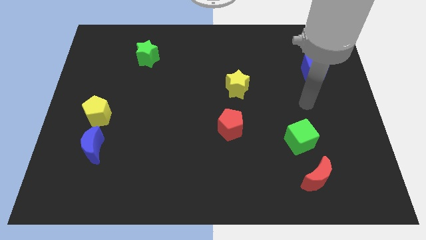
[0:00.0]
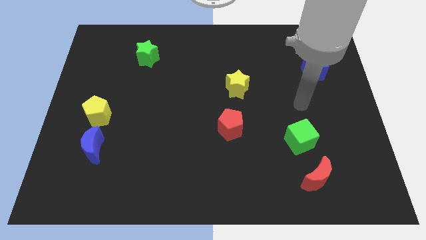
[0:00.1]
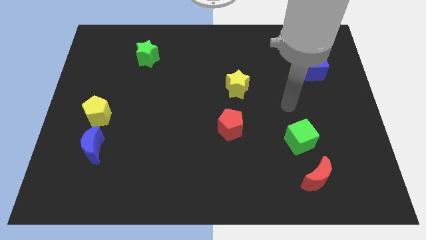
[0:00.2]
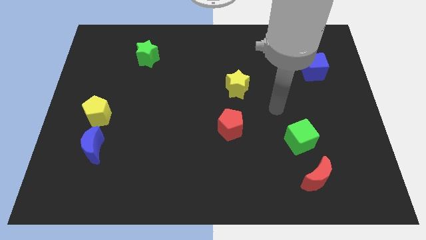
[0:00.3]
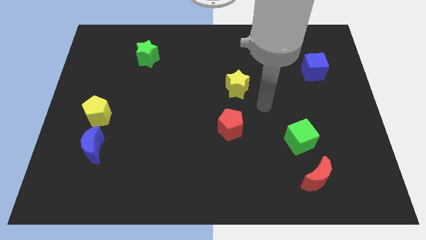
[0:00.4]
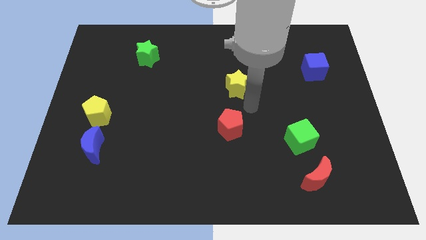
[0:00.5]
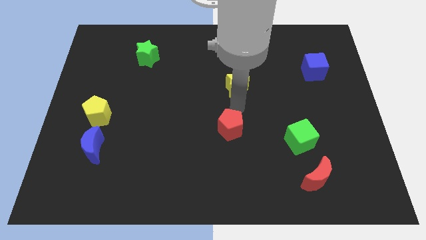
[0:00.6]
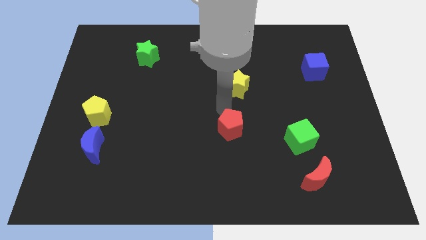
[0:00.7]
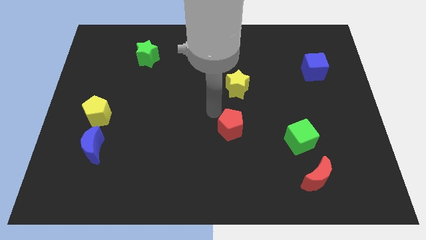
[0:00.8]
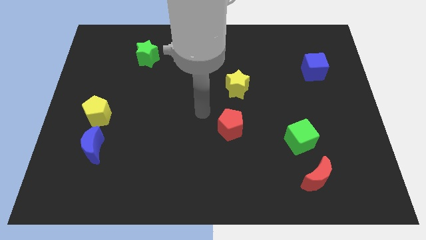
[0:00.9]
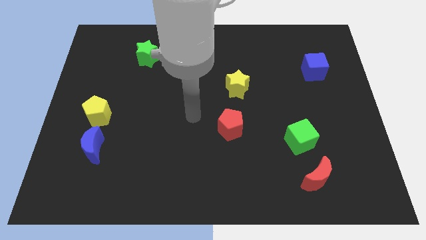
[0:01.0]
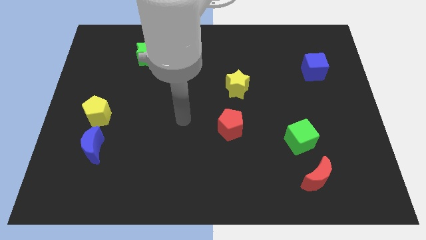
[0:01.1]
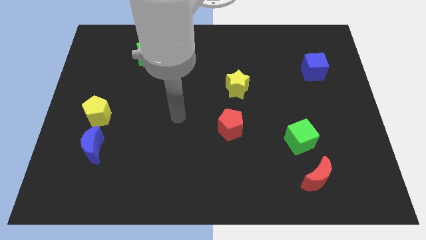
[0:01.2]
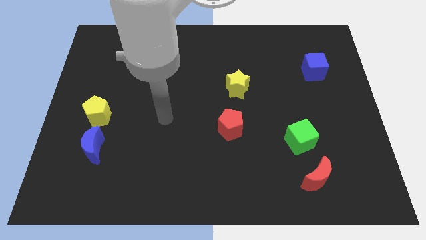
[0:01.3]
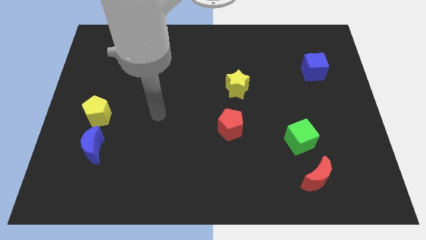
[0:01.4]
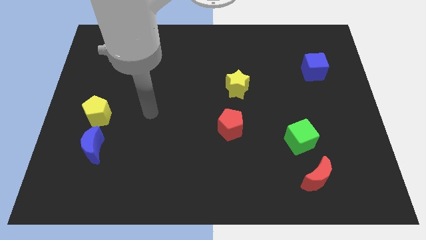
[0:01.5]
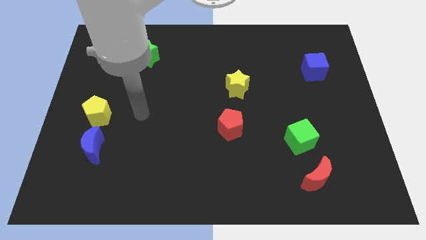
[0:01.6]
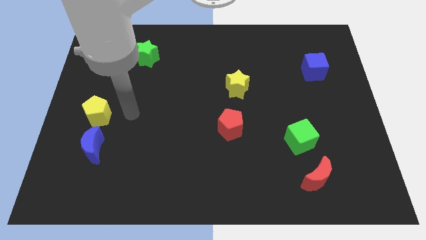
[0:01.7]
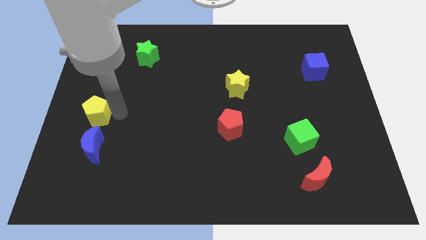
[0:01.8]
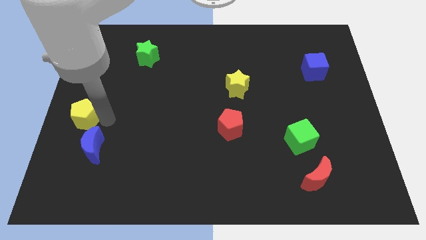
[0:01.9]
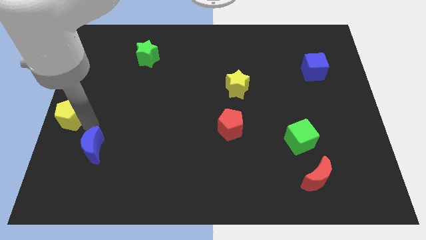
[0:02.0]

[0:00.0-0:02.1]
pull the blue moon apart from the yellow pentagon

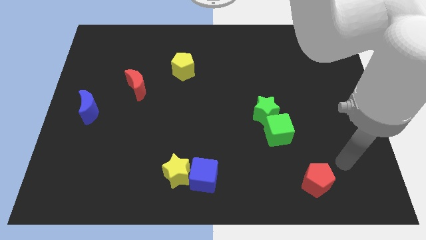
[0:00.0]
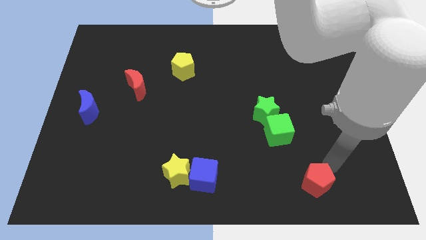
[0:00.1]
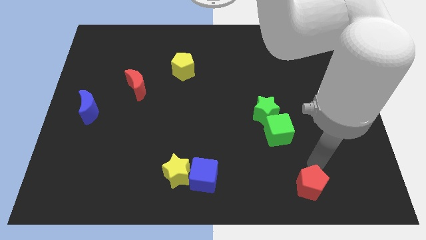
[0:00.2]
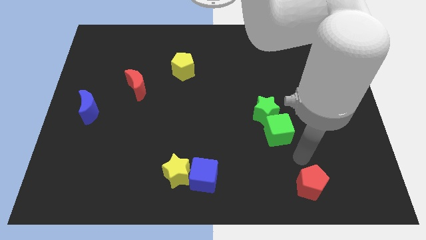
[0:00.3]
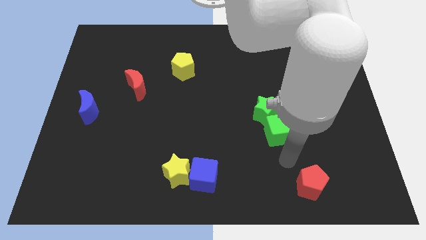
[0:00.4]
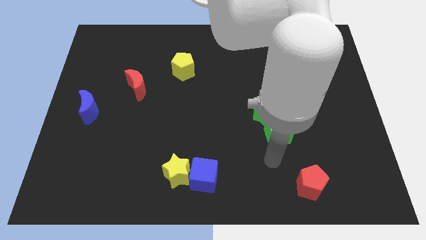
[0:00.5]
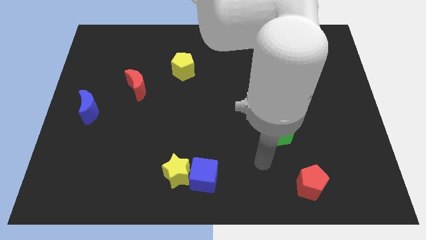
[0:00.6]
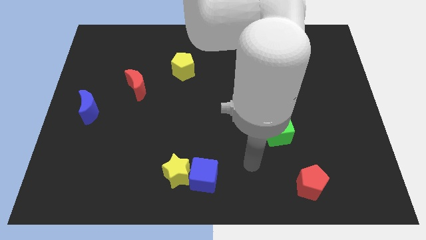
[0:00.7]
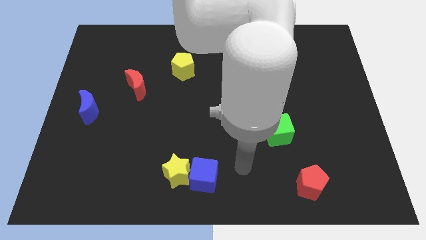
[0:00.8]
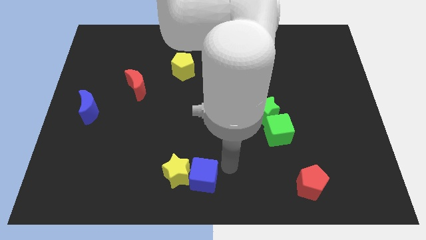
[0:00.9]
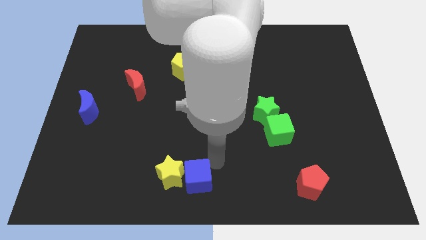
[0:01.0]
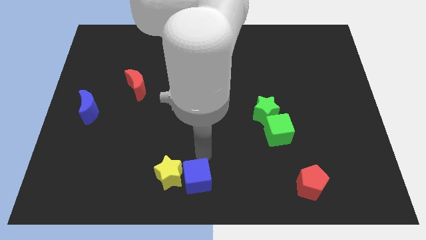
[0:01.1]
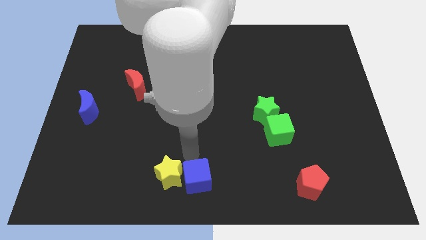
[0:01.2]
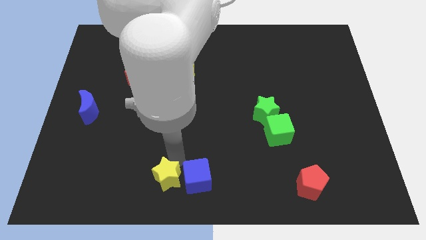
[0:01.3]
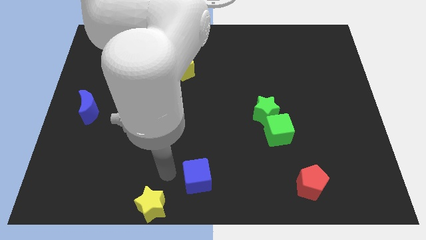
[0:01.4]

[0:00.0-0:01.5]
separate the blue cube from the yellow star

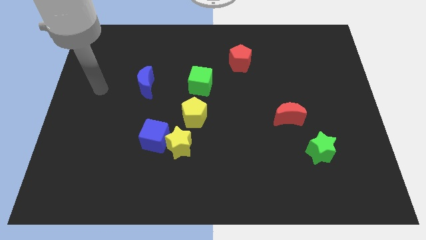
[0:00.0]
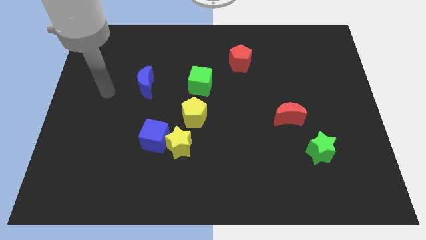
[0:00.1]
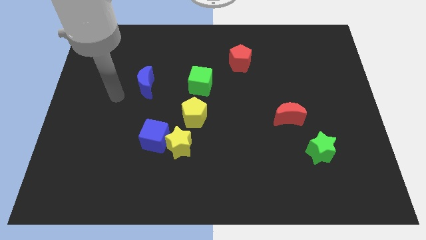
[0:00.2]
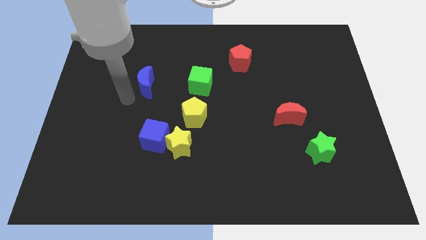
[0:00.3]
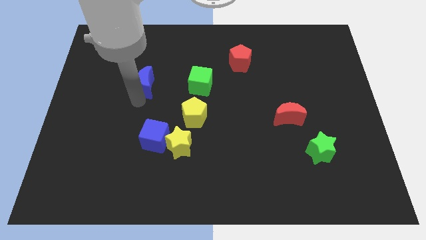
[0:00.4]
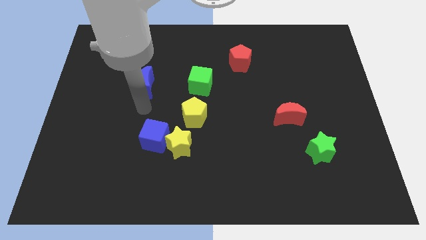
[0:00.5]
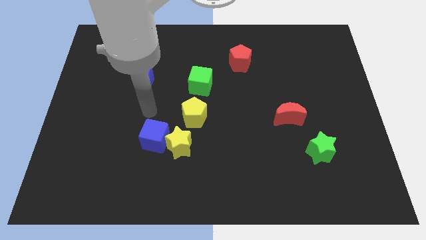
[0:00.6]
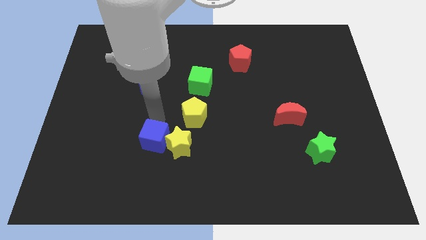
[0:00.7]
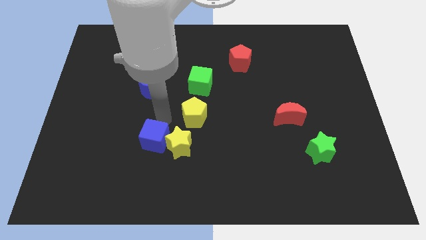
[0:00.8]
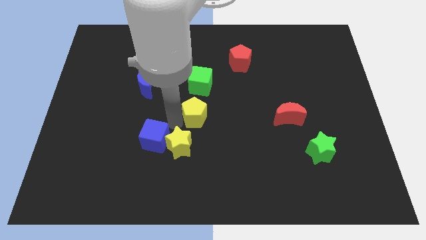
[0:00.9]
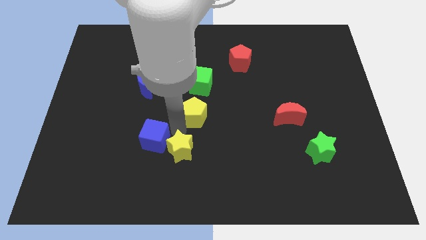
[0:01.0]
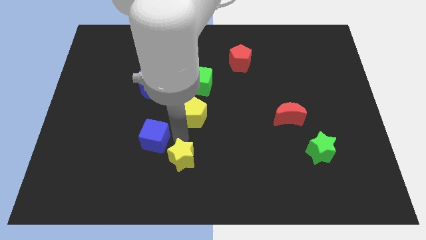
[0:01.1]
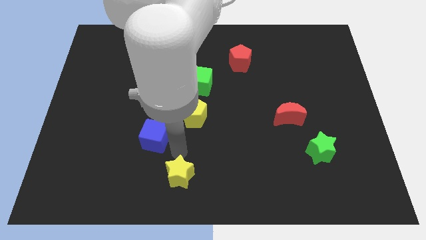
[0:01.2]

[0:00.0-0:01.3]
move the blue cube away from the yellow star

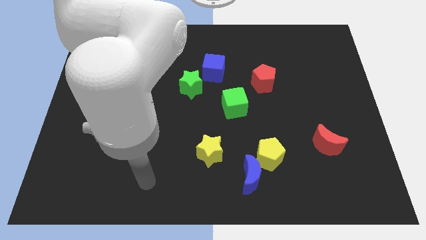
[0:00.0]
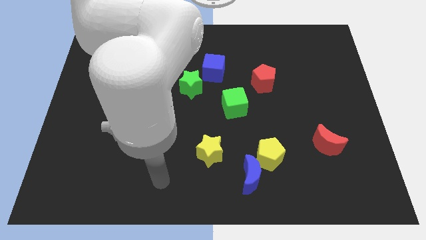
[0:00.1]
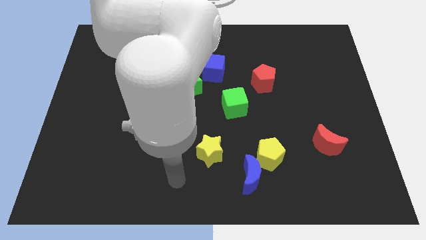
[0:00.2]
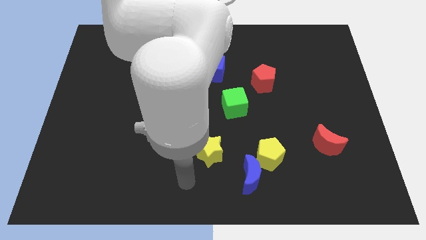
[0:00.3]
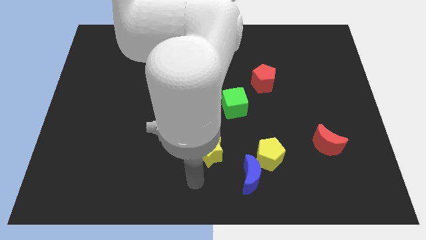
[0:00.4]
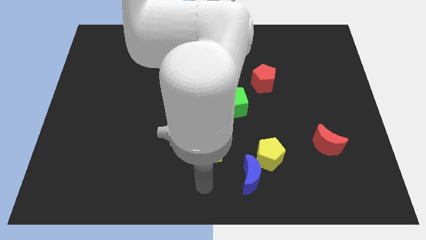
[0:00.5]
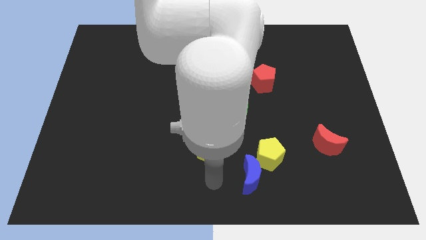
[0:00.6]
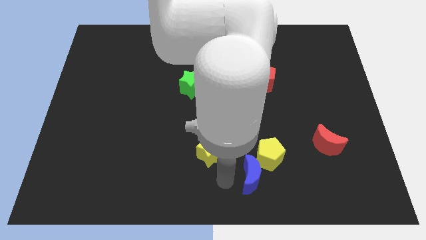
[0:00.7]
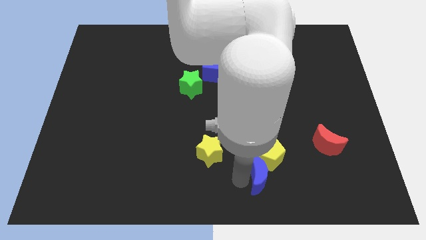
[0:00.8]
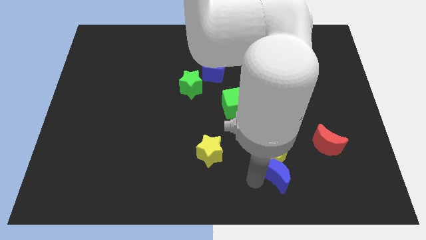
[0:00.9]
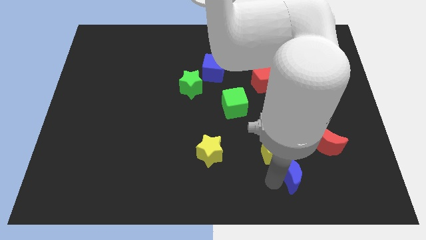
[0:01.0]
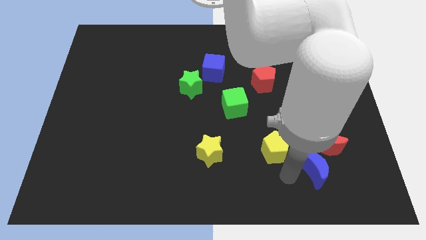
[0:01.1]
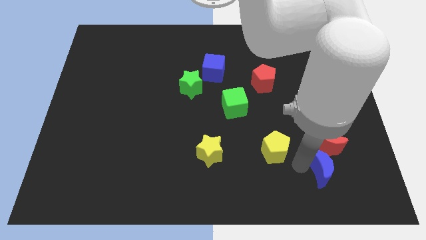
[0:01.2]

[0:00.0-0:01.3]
pull the yellow pentagon apart from the blue moon

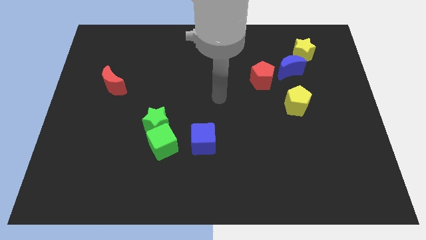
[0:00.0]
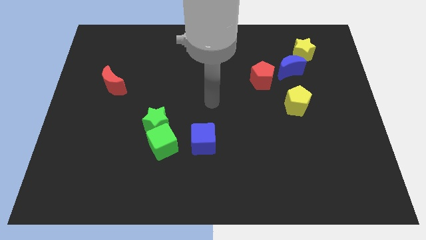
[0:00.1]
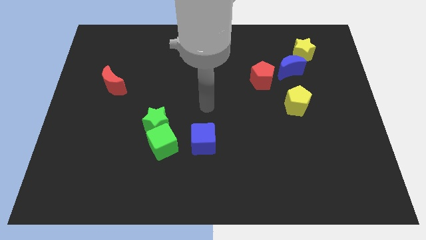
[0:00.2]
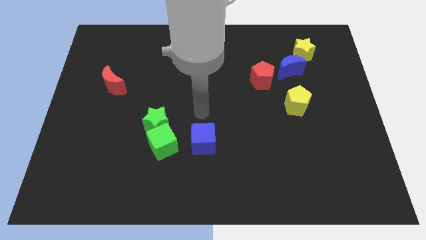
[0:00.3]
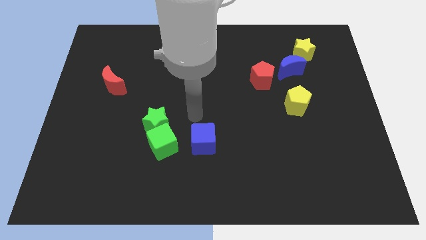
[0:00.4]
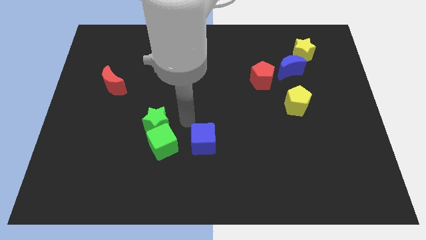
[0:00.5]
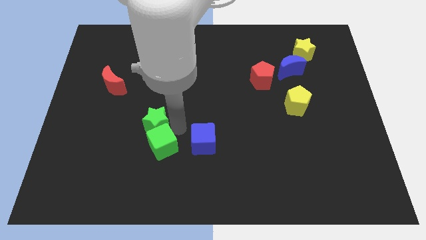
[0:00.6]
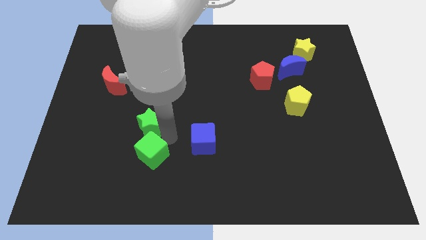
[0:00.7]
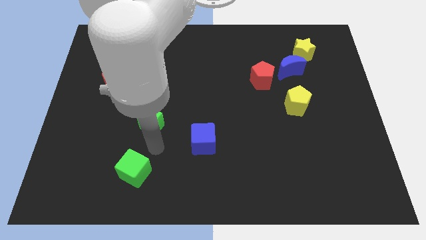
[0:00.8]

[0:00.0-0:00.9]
separate the green star from the green cube

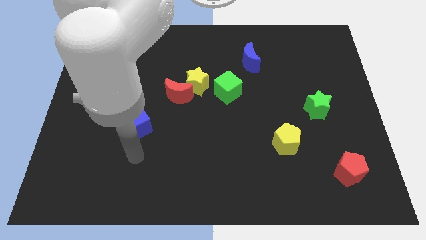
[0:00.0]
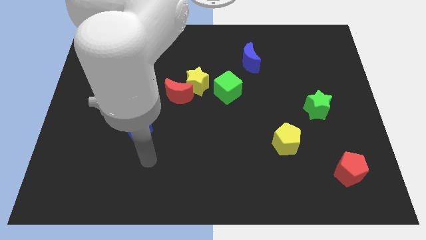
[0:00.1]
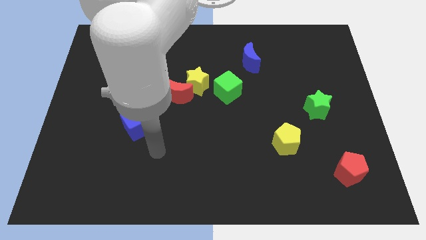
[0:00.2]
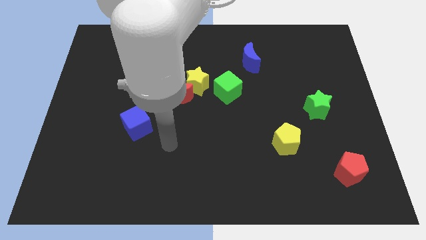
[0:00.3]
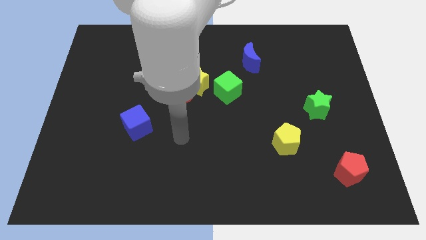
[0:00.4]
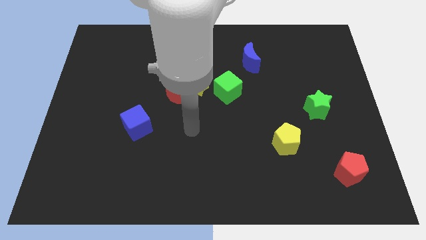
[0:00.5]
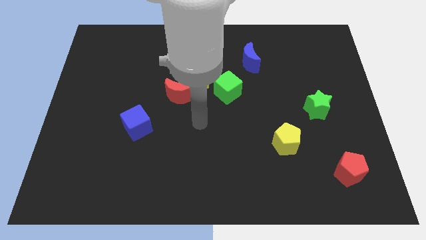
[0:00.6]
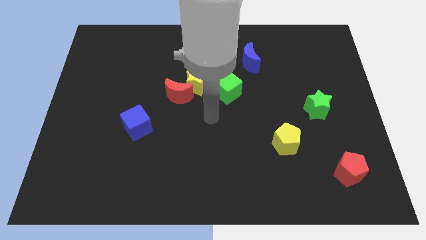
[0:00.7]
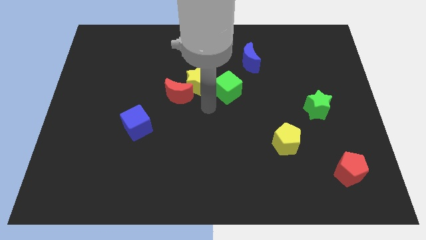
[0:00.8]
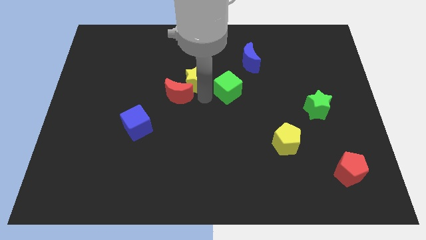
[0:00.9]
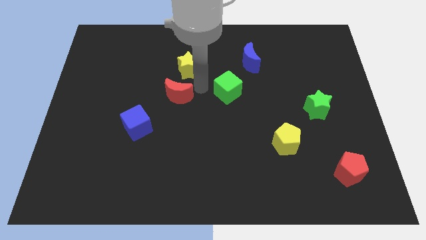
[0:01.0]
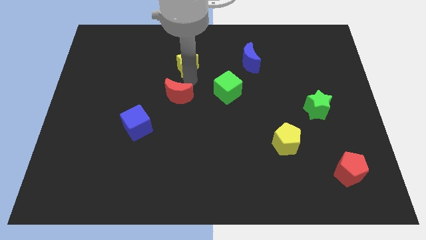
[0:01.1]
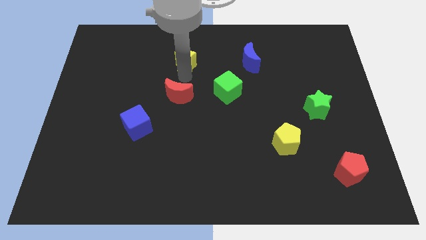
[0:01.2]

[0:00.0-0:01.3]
move the red moon away from the yellow star

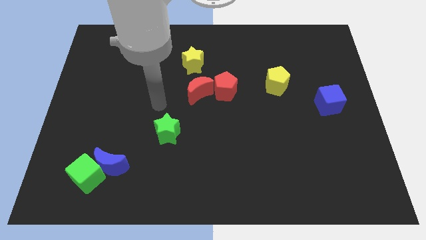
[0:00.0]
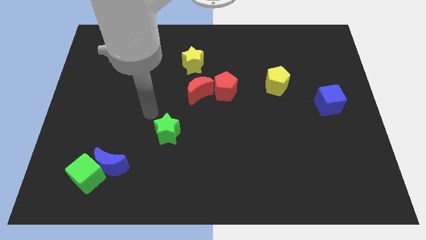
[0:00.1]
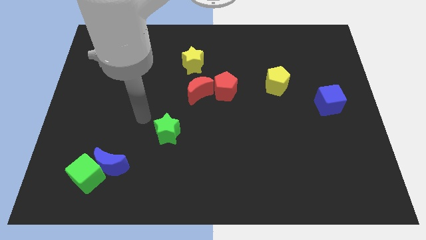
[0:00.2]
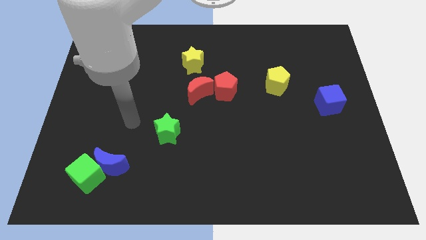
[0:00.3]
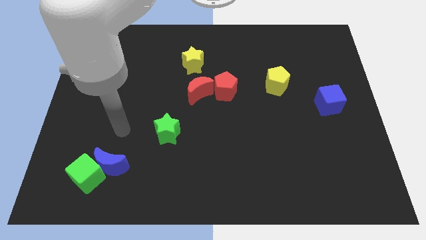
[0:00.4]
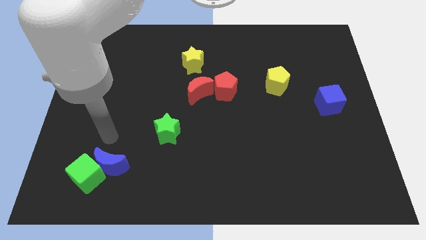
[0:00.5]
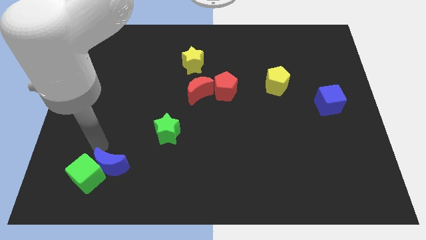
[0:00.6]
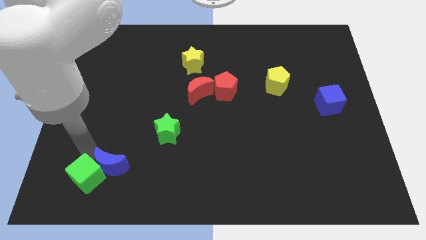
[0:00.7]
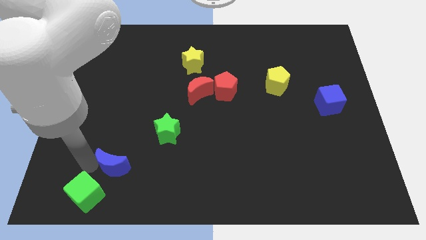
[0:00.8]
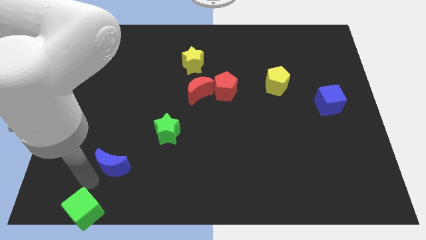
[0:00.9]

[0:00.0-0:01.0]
move the blue moon away from the green cube

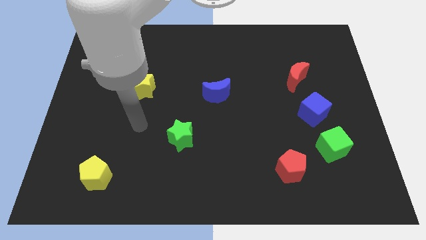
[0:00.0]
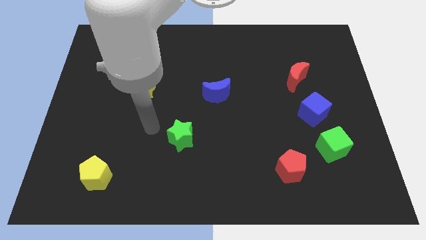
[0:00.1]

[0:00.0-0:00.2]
separate the blue cube from the green cube
